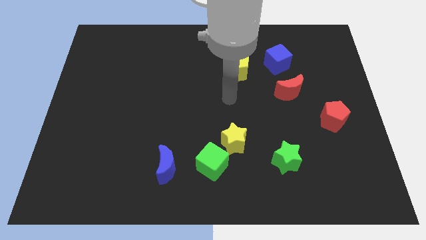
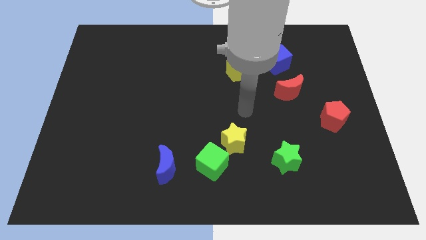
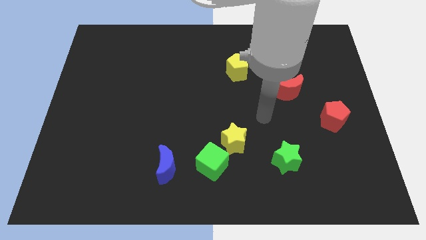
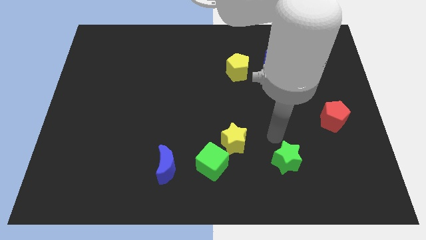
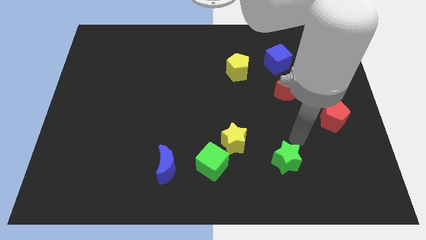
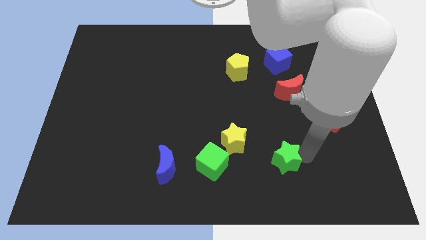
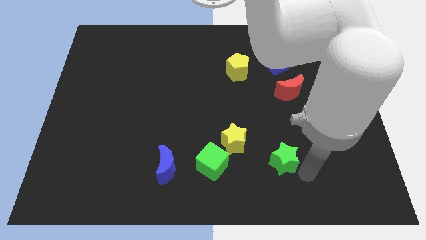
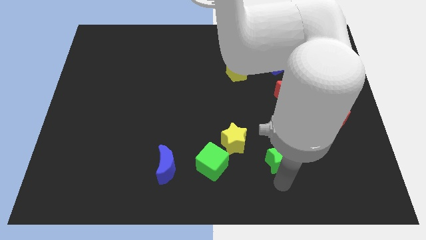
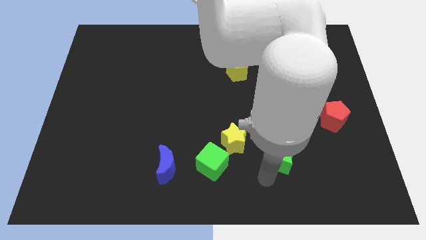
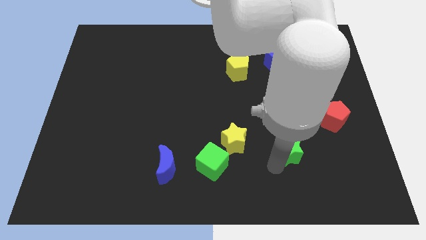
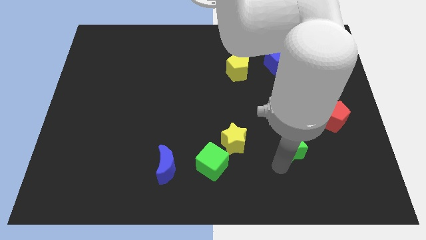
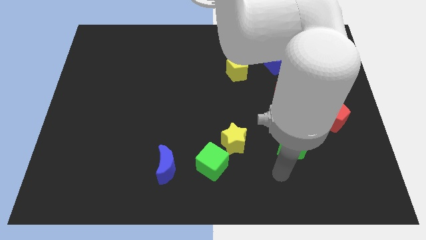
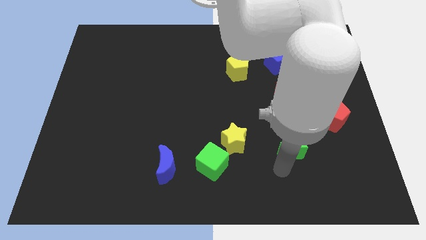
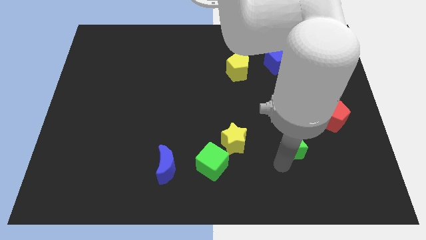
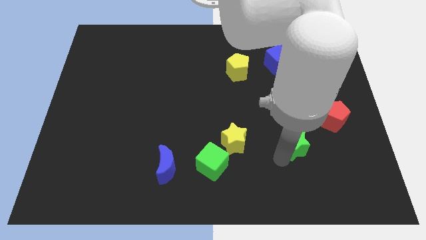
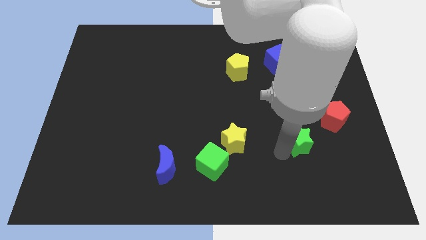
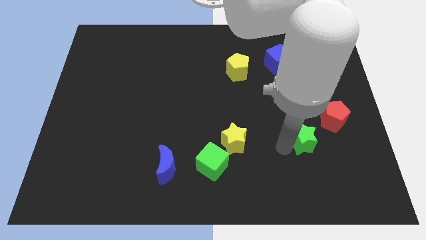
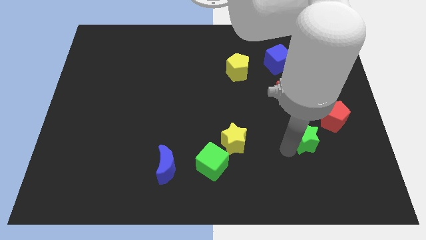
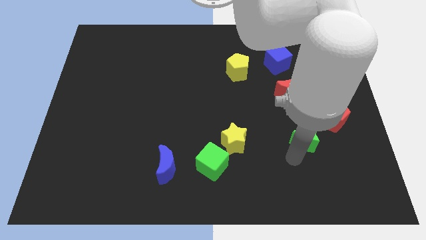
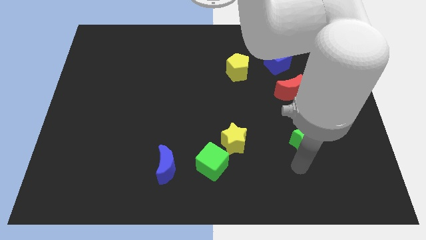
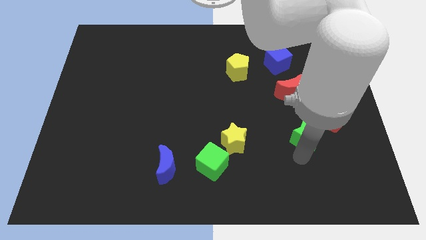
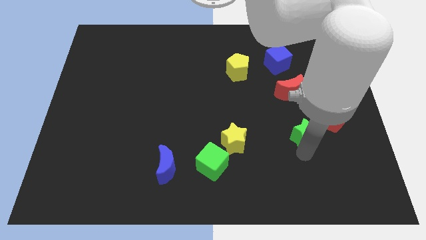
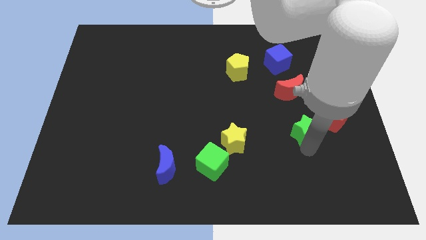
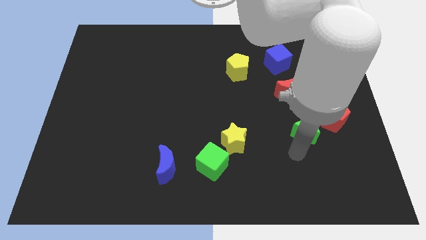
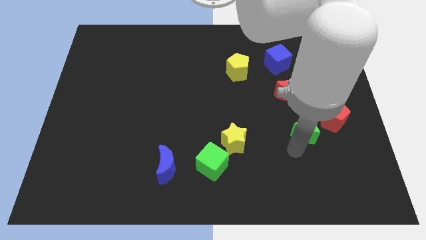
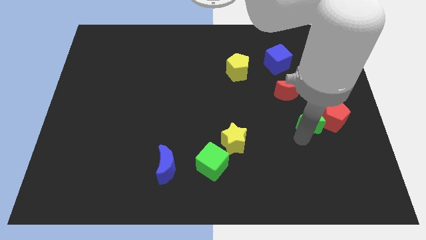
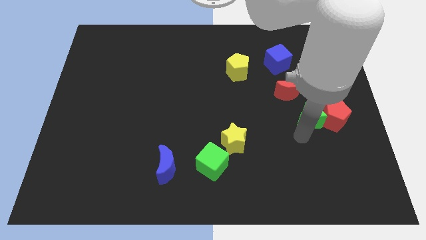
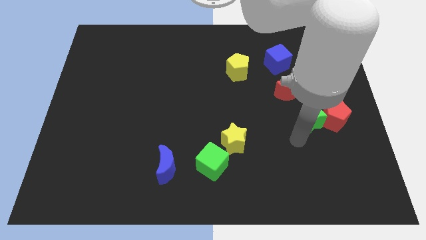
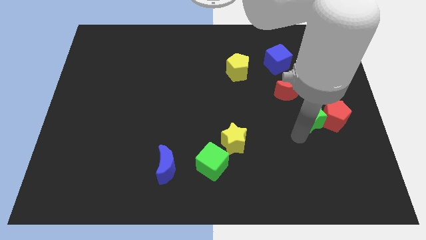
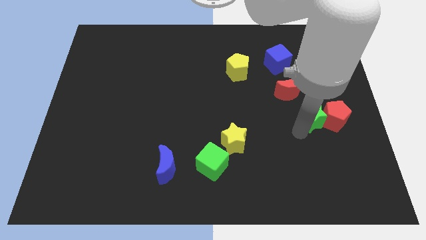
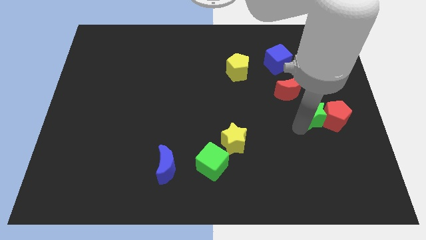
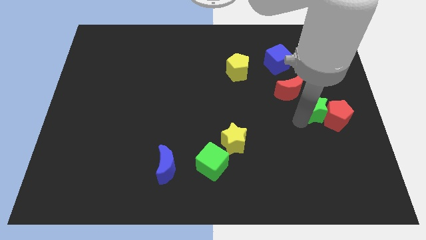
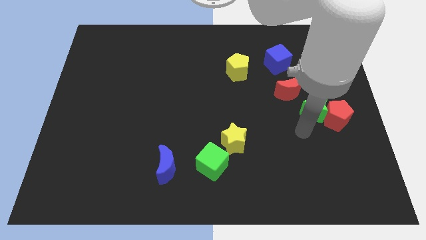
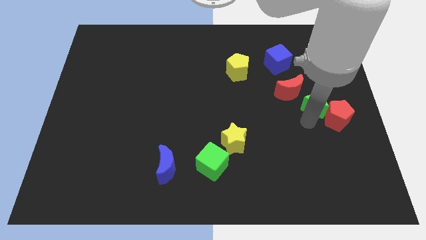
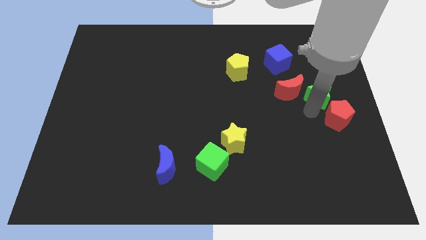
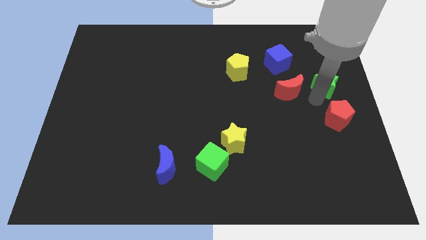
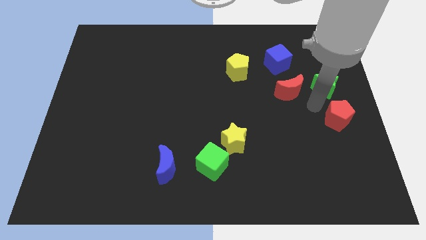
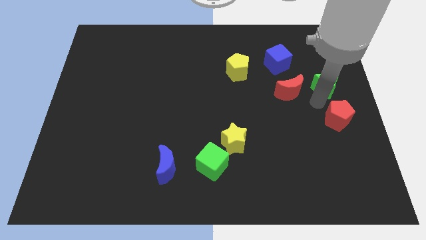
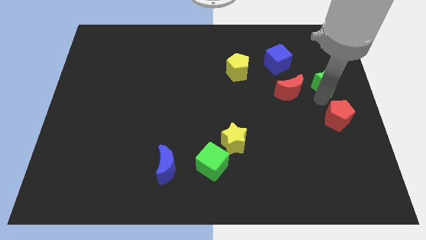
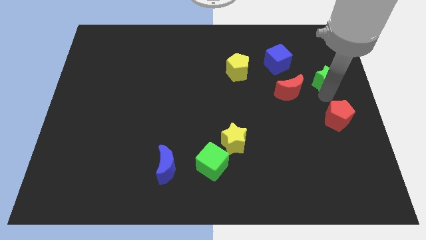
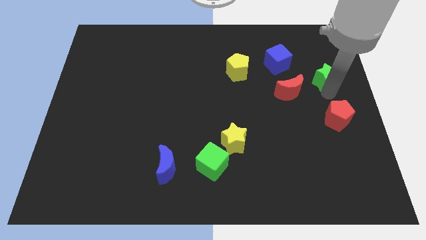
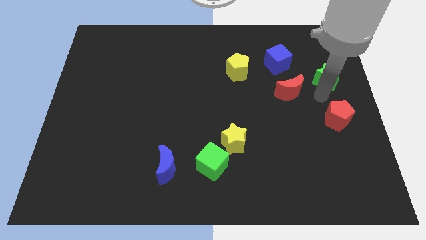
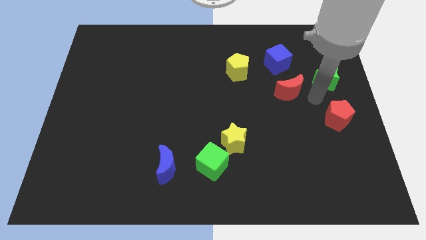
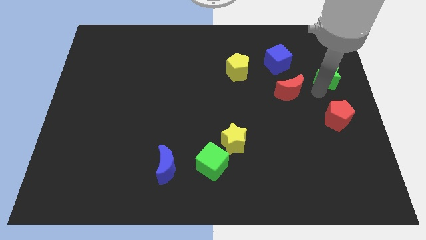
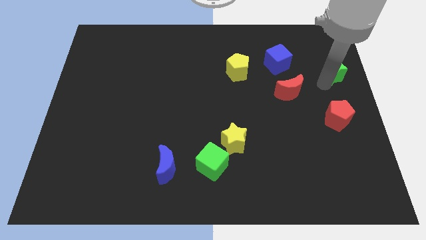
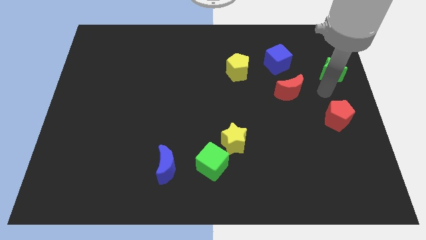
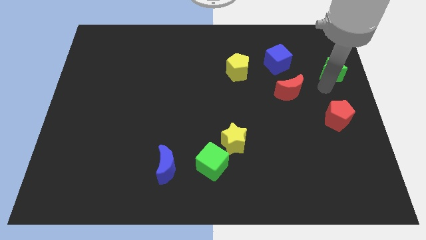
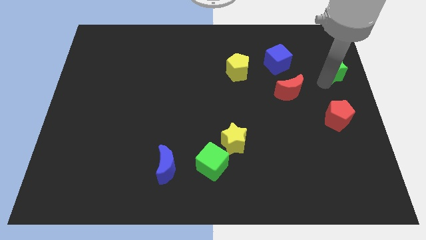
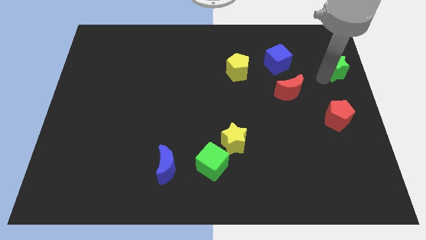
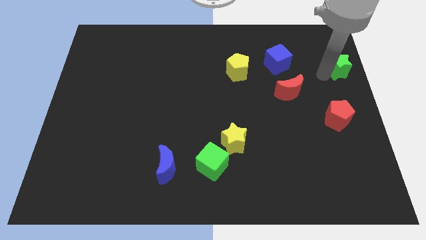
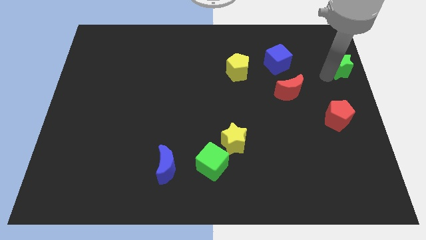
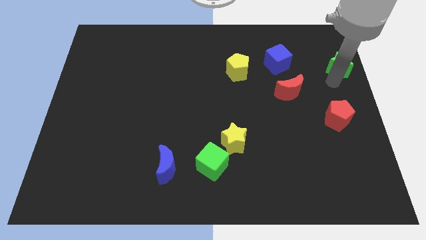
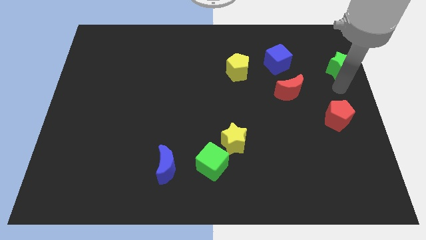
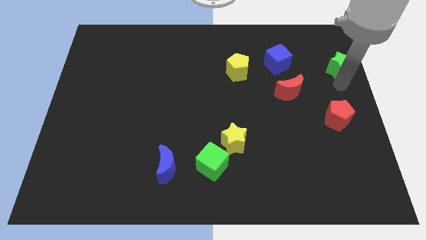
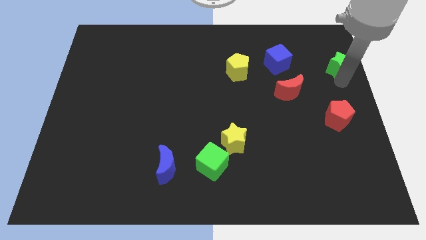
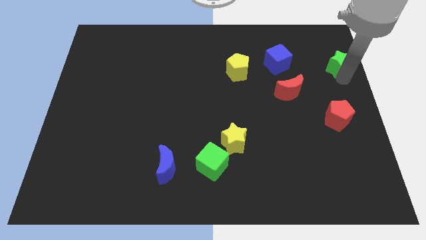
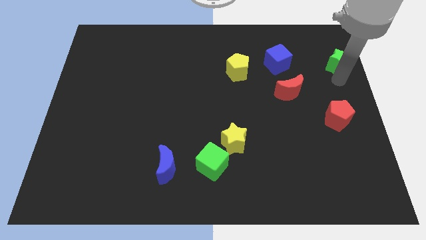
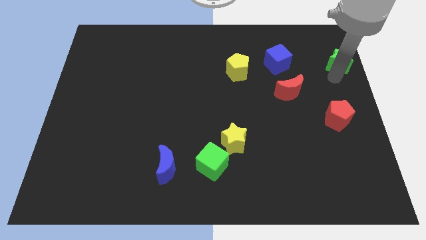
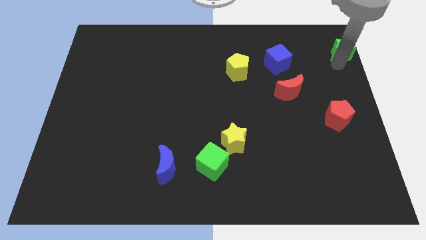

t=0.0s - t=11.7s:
slide the green star to the top right
